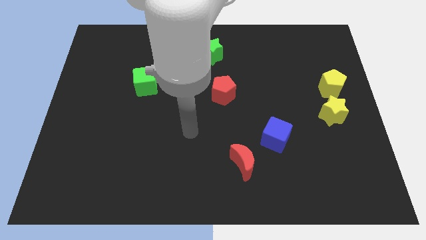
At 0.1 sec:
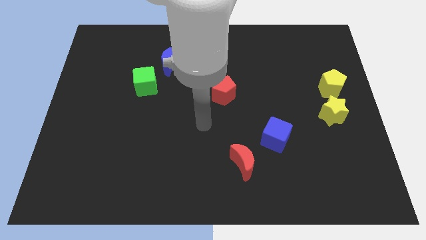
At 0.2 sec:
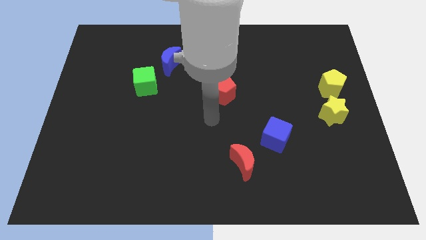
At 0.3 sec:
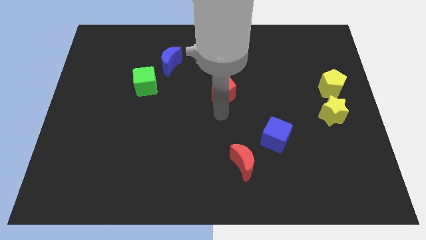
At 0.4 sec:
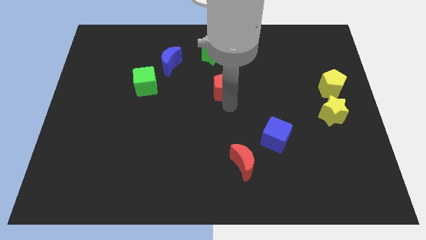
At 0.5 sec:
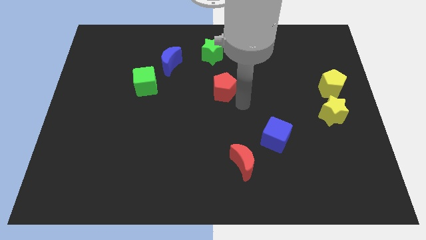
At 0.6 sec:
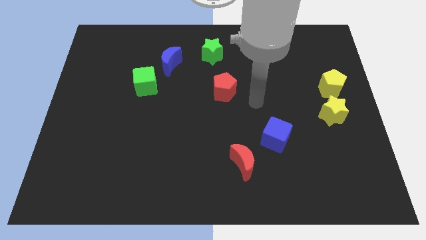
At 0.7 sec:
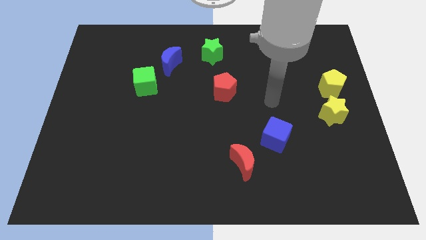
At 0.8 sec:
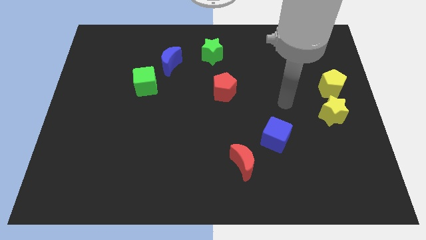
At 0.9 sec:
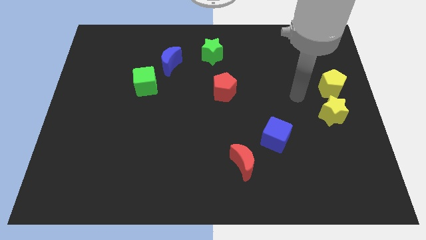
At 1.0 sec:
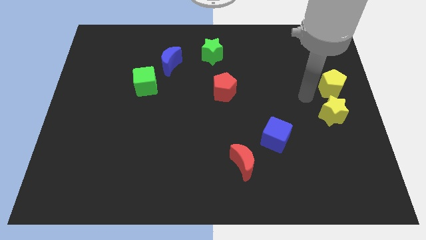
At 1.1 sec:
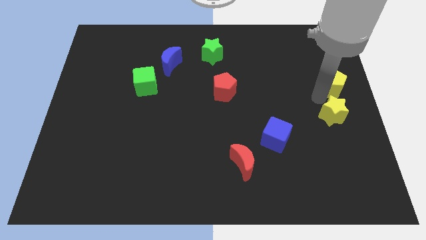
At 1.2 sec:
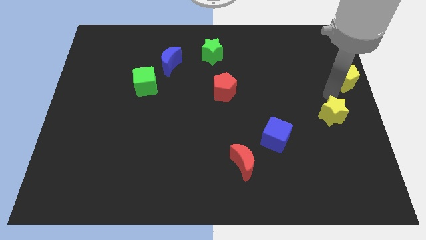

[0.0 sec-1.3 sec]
move the yellow star away from the yellow pentagon

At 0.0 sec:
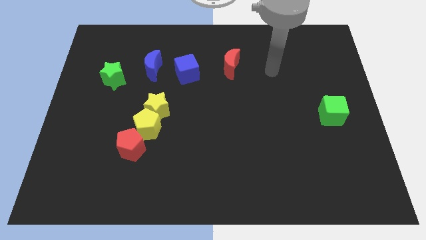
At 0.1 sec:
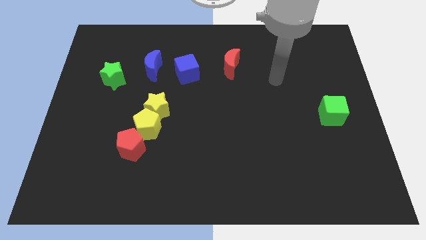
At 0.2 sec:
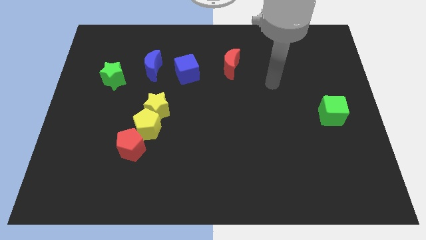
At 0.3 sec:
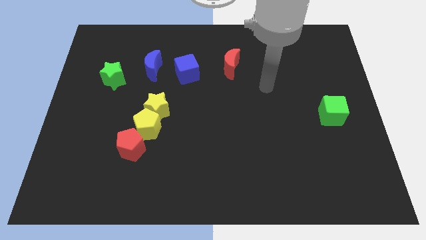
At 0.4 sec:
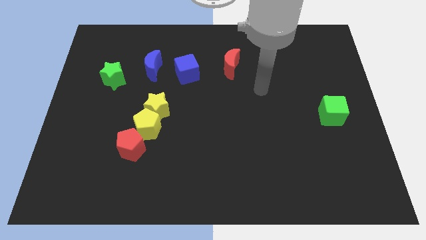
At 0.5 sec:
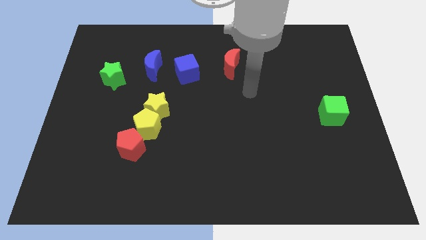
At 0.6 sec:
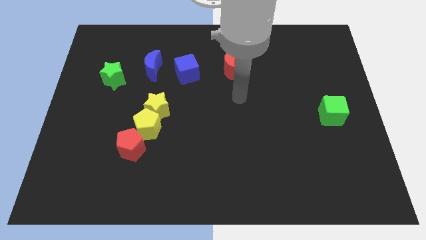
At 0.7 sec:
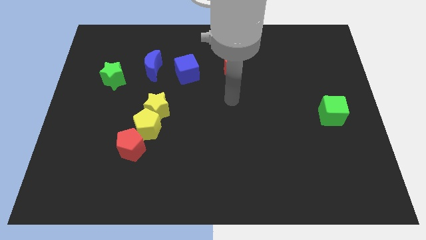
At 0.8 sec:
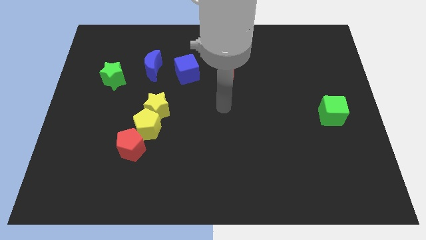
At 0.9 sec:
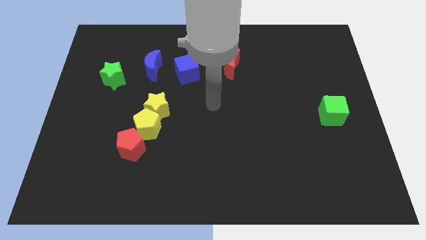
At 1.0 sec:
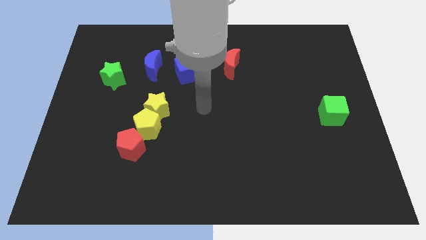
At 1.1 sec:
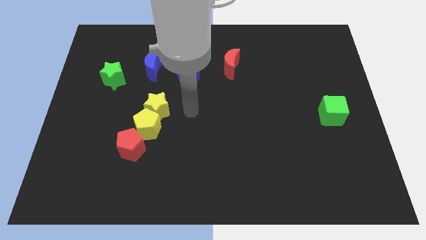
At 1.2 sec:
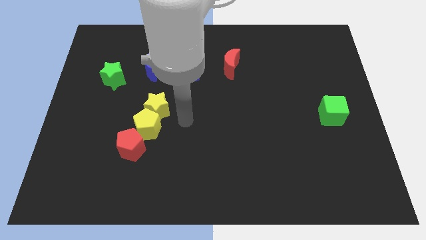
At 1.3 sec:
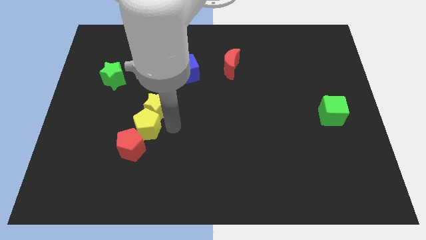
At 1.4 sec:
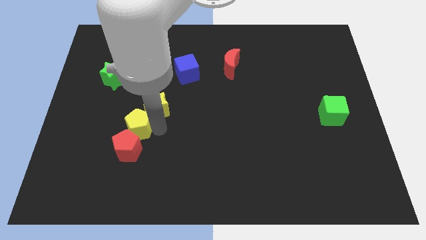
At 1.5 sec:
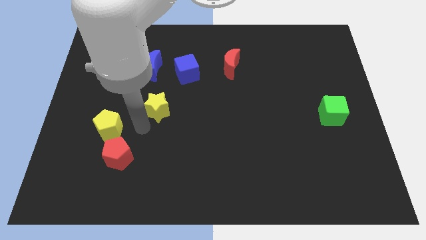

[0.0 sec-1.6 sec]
pull the yellow star apart from the yellow pentagon

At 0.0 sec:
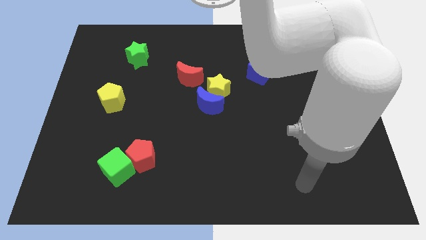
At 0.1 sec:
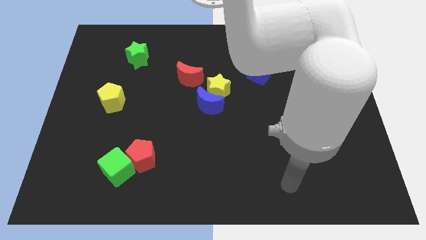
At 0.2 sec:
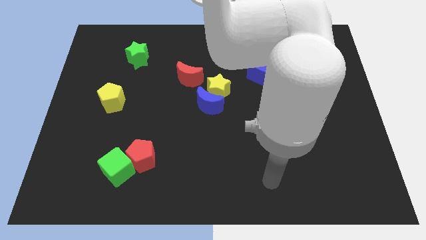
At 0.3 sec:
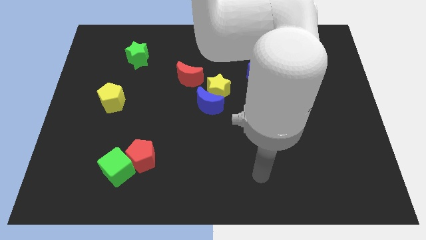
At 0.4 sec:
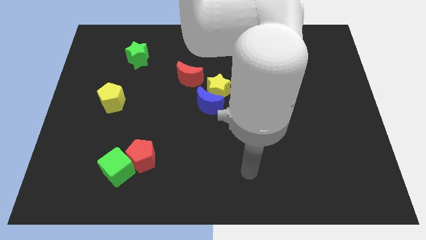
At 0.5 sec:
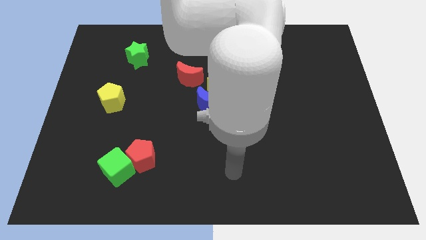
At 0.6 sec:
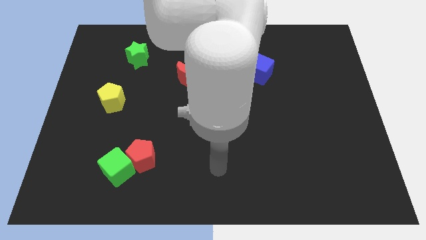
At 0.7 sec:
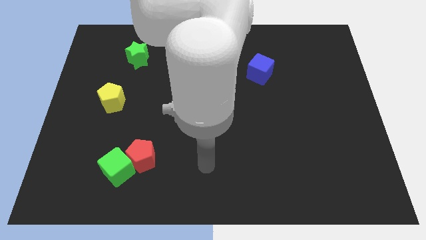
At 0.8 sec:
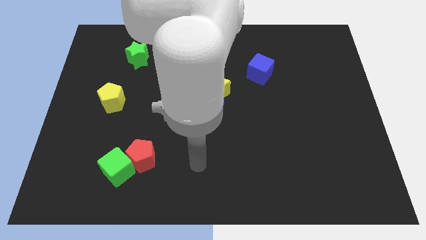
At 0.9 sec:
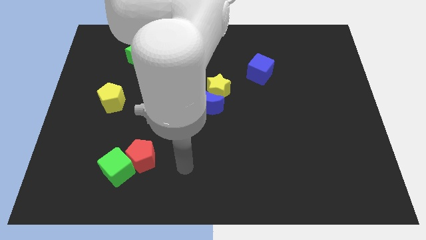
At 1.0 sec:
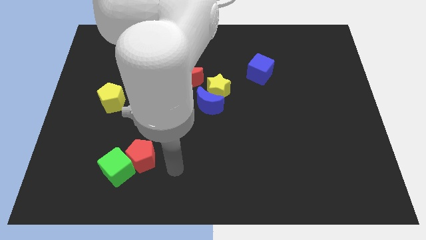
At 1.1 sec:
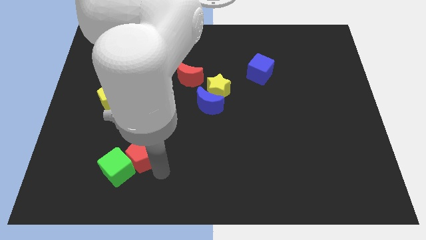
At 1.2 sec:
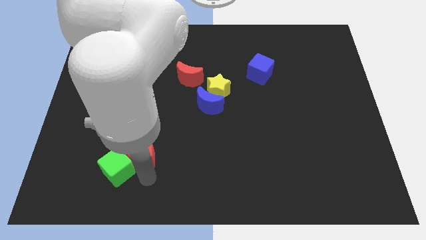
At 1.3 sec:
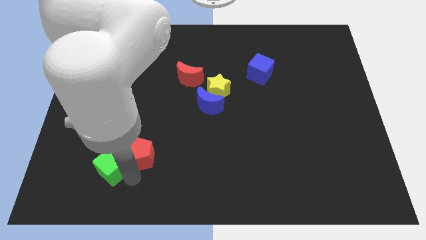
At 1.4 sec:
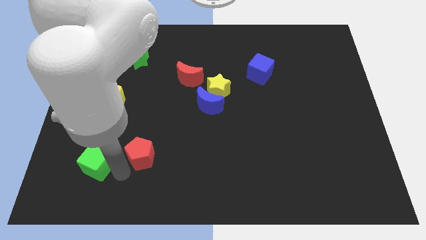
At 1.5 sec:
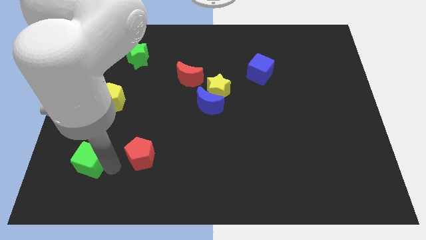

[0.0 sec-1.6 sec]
separate the red pentagon from the green cube

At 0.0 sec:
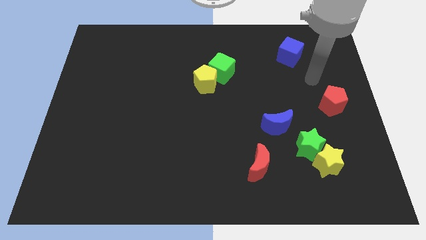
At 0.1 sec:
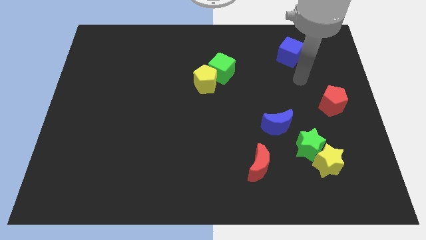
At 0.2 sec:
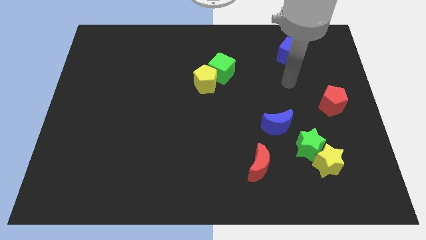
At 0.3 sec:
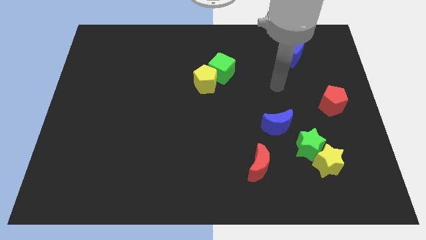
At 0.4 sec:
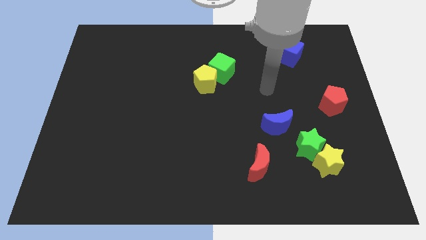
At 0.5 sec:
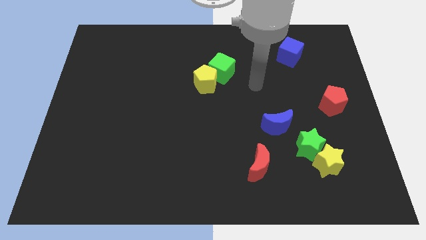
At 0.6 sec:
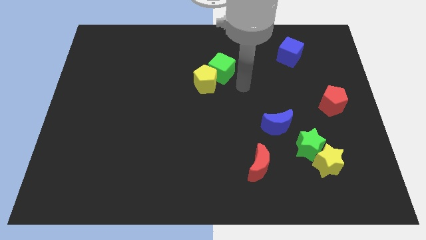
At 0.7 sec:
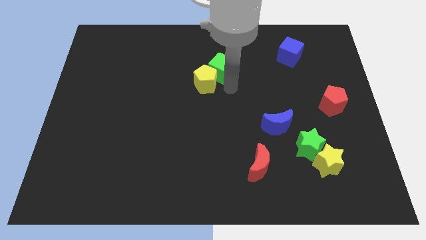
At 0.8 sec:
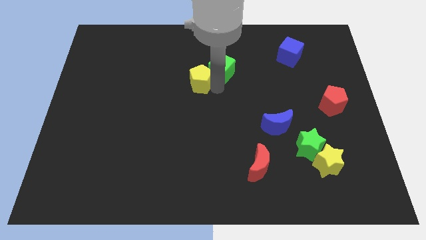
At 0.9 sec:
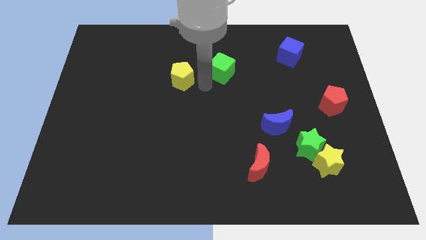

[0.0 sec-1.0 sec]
pull the green cube apart from the yellow pentagon

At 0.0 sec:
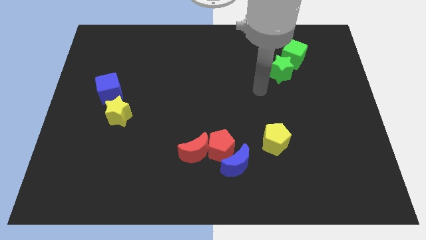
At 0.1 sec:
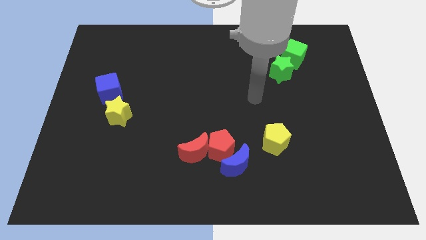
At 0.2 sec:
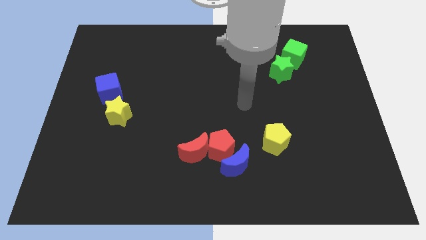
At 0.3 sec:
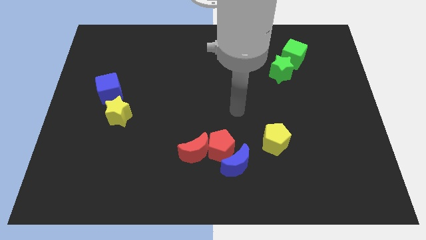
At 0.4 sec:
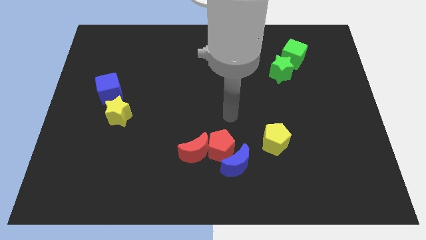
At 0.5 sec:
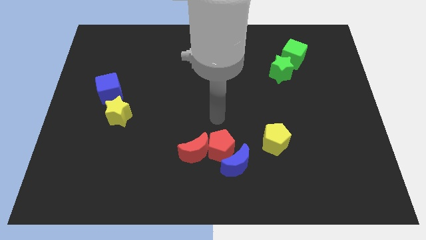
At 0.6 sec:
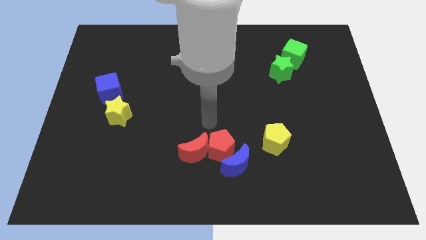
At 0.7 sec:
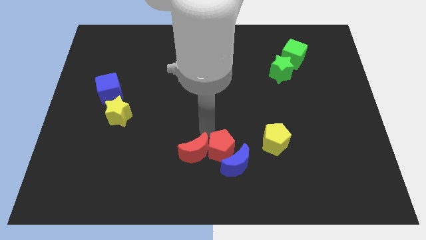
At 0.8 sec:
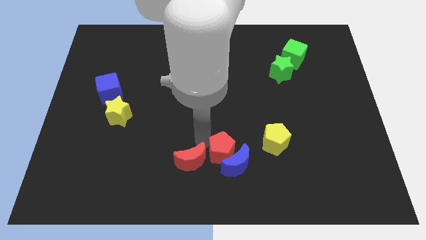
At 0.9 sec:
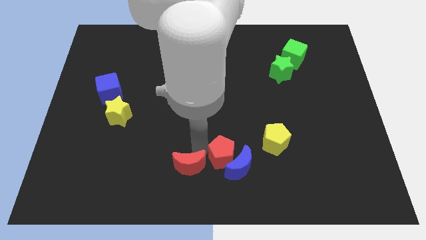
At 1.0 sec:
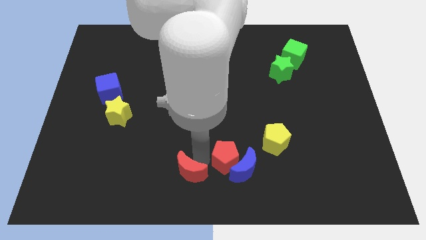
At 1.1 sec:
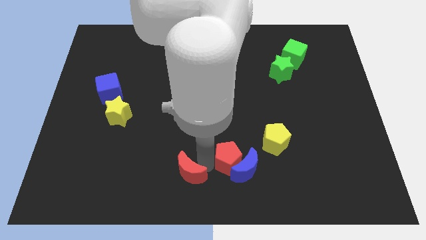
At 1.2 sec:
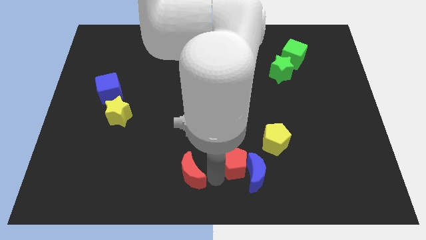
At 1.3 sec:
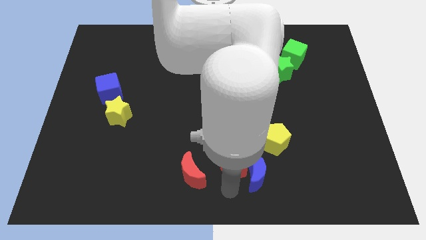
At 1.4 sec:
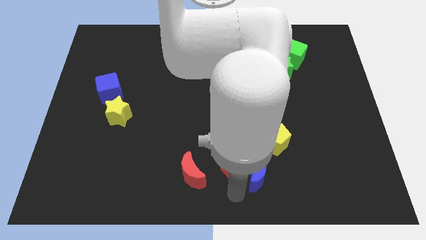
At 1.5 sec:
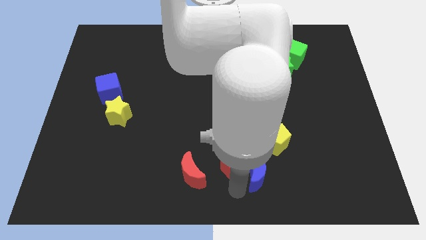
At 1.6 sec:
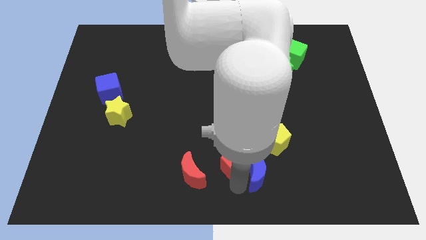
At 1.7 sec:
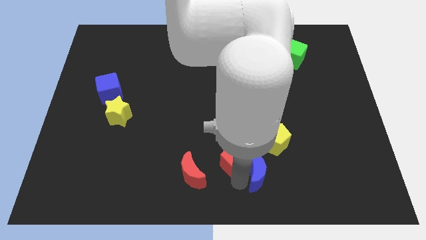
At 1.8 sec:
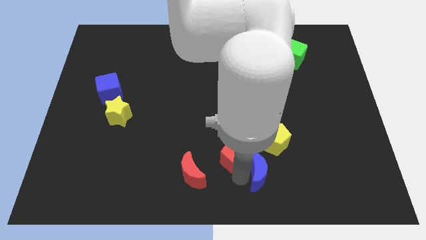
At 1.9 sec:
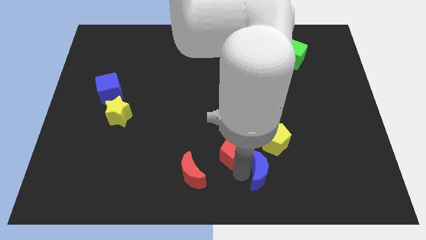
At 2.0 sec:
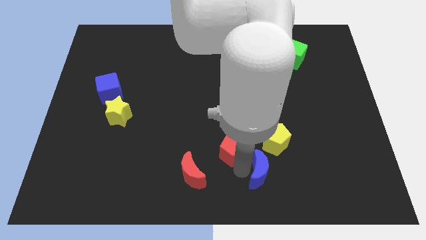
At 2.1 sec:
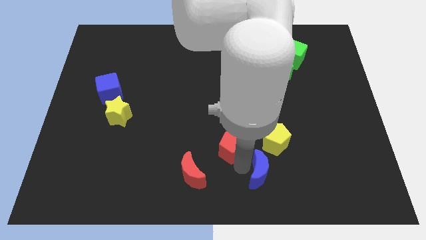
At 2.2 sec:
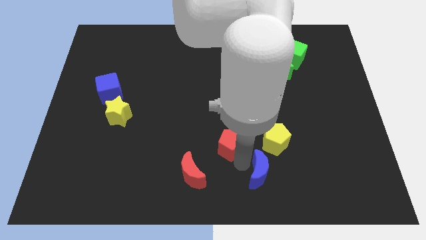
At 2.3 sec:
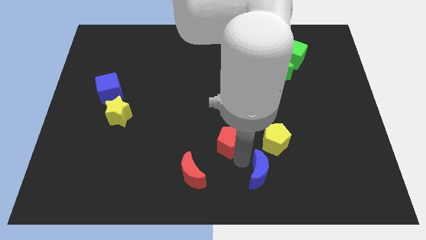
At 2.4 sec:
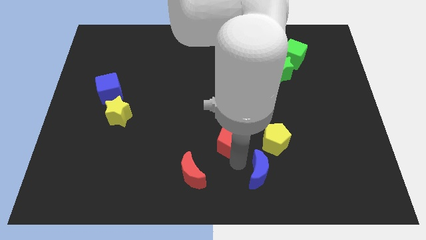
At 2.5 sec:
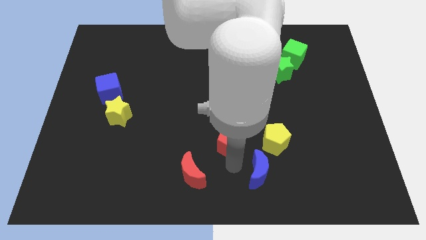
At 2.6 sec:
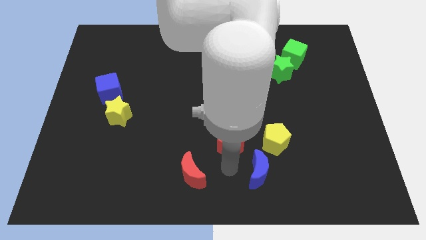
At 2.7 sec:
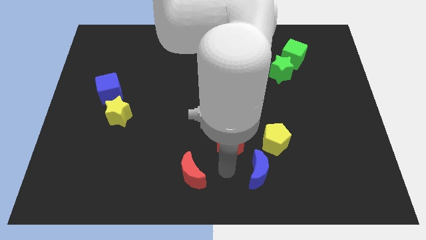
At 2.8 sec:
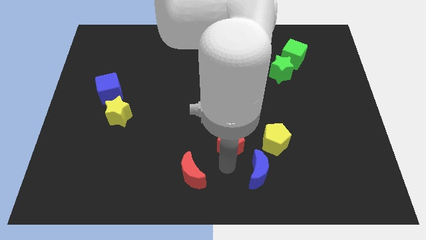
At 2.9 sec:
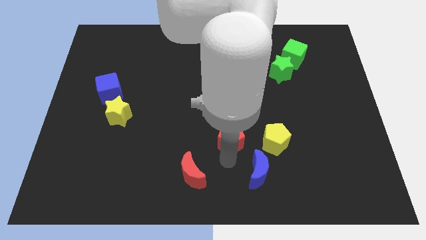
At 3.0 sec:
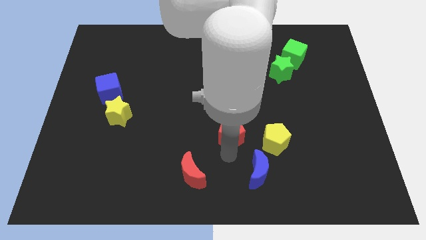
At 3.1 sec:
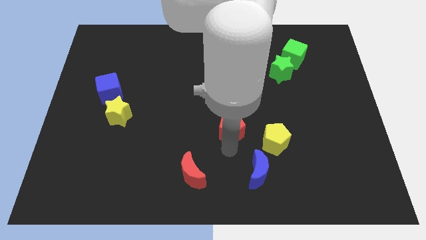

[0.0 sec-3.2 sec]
pull the red pentagon apart from the blue moon and red moon

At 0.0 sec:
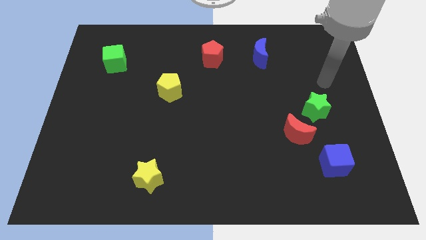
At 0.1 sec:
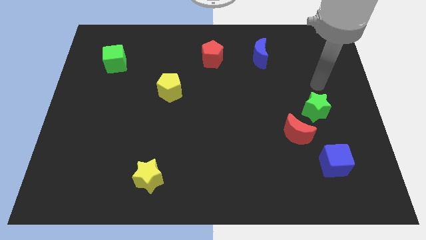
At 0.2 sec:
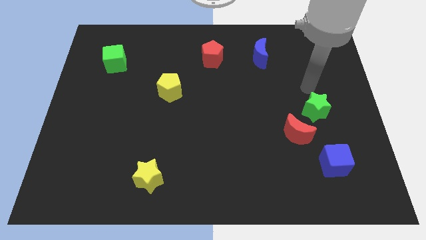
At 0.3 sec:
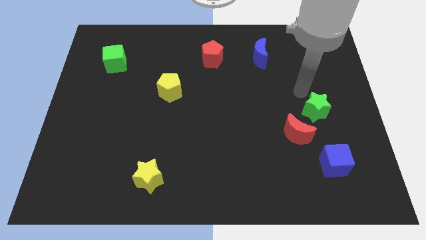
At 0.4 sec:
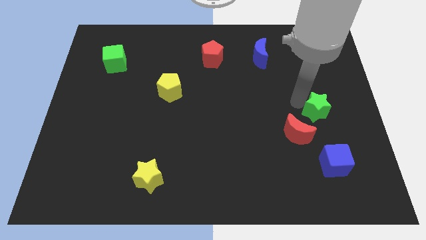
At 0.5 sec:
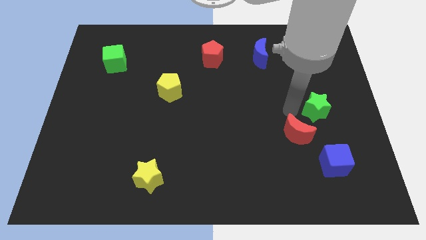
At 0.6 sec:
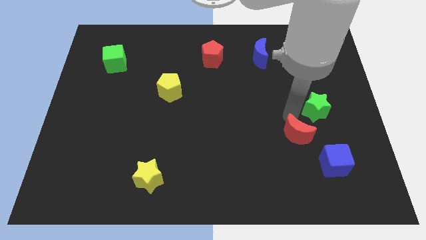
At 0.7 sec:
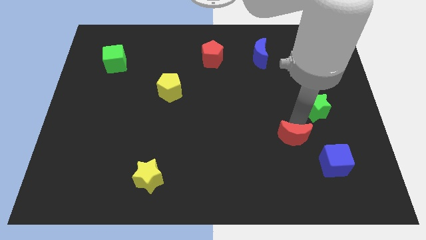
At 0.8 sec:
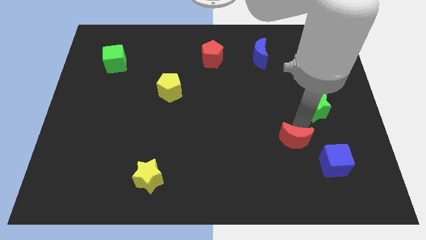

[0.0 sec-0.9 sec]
separate the green star from the red moon
